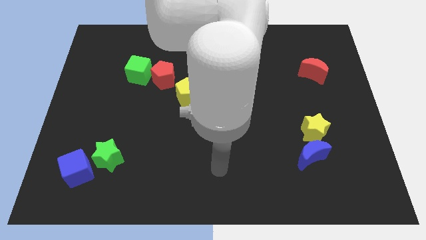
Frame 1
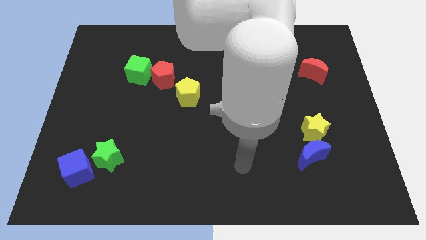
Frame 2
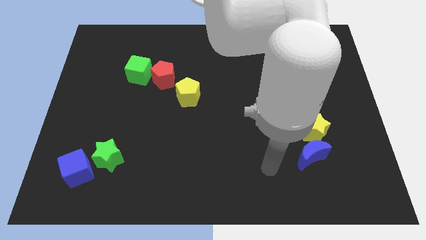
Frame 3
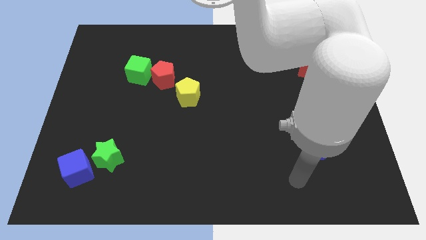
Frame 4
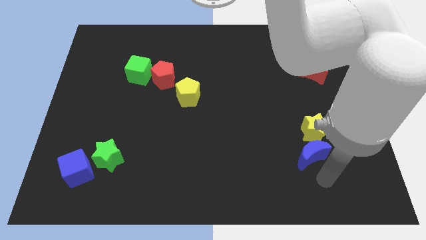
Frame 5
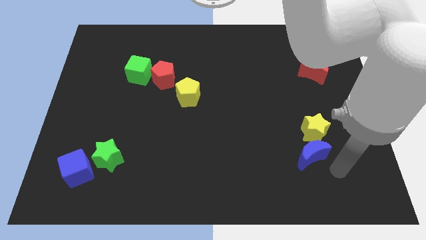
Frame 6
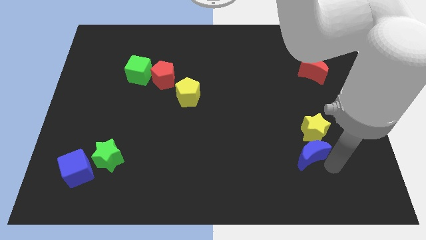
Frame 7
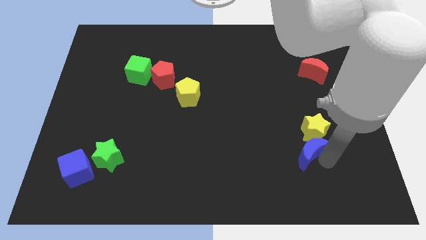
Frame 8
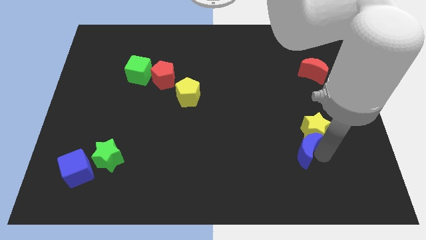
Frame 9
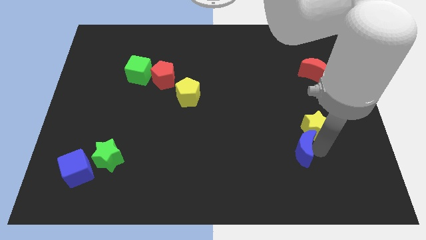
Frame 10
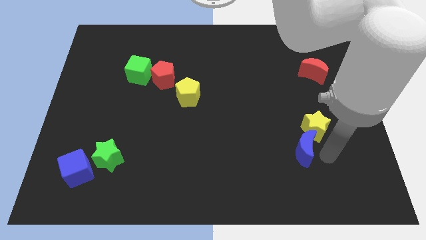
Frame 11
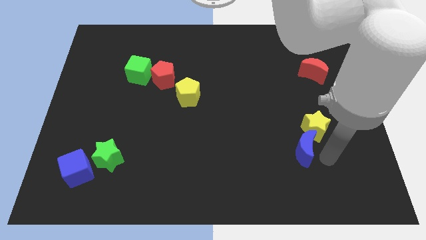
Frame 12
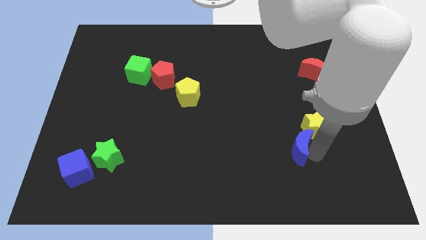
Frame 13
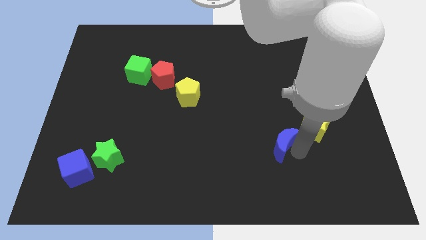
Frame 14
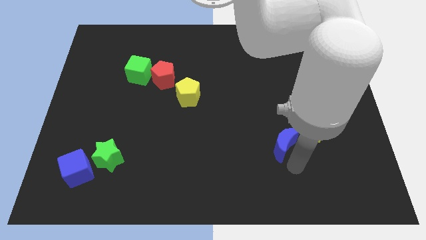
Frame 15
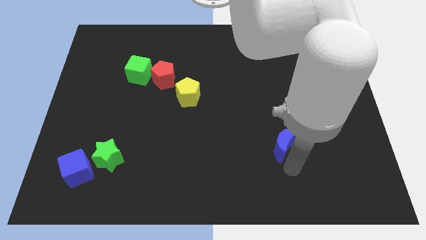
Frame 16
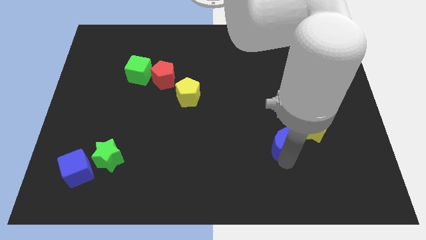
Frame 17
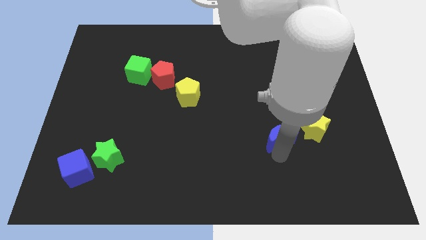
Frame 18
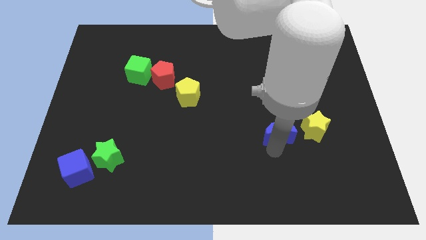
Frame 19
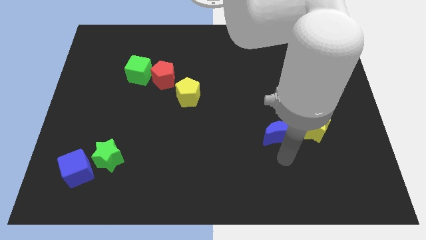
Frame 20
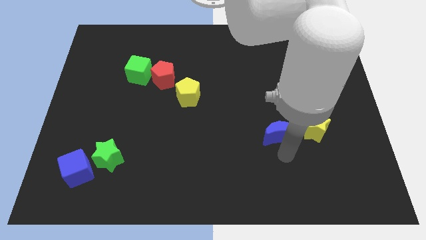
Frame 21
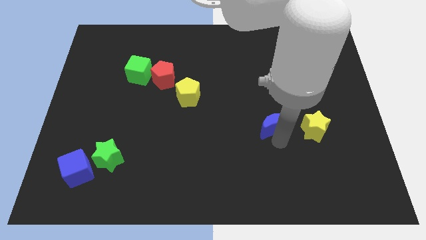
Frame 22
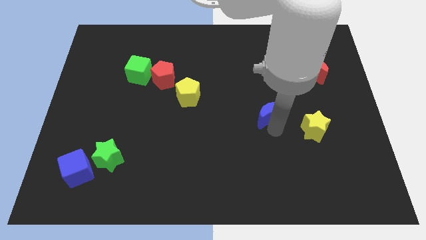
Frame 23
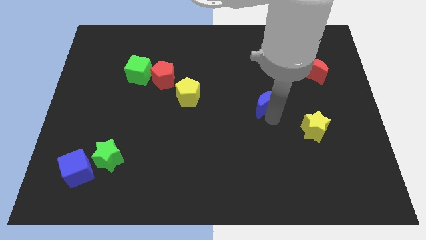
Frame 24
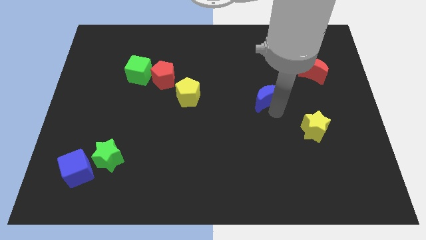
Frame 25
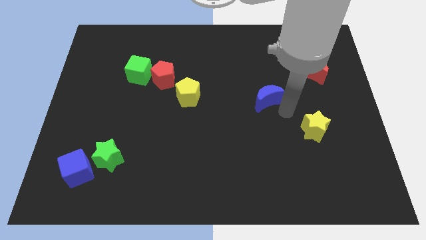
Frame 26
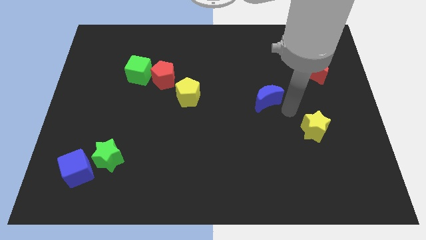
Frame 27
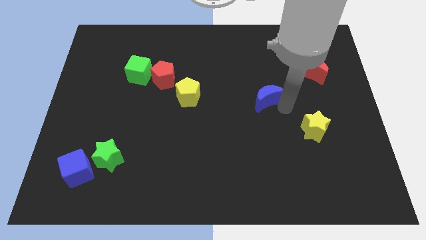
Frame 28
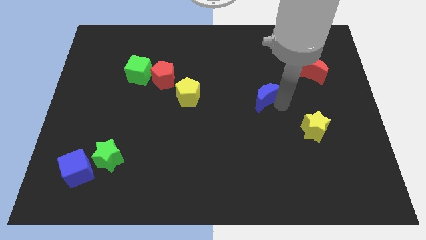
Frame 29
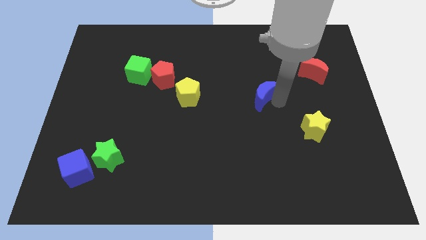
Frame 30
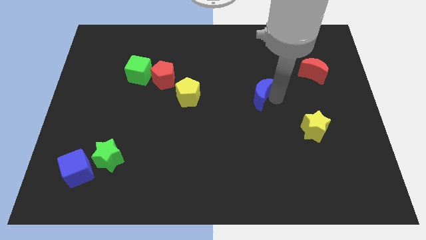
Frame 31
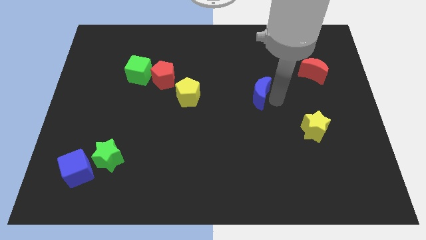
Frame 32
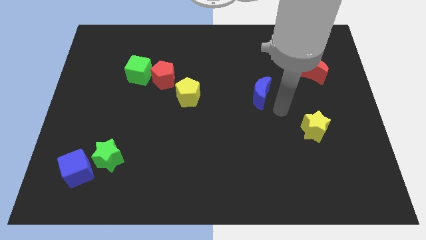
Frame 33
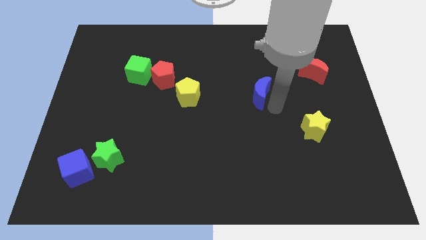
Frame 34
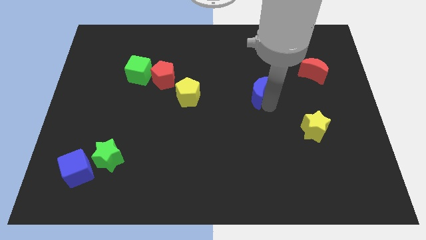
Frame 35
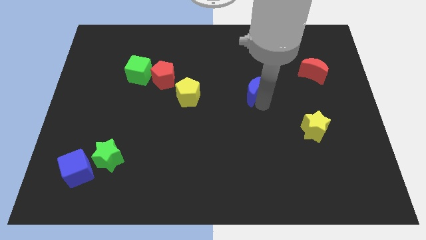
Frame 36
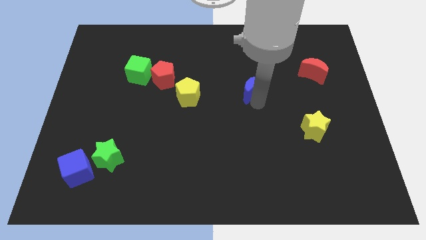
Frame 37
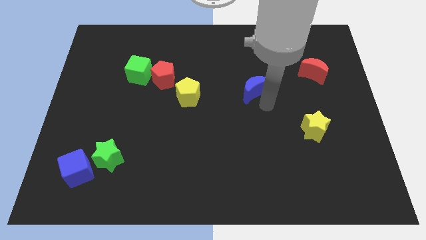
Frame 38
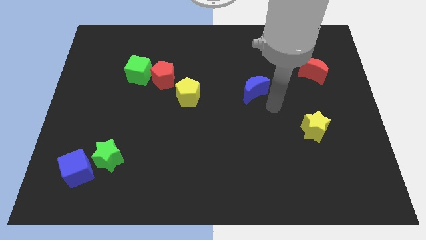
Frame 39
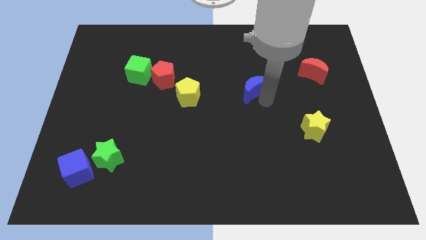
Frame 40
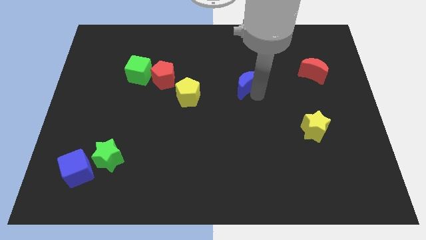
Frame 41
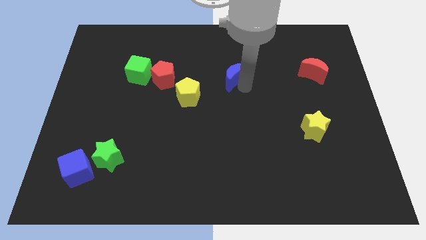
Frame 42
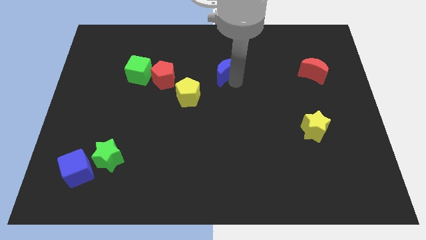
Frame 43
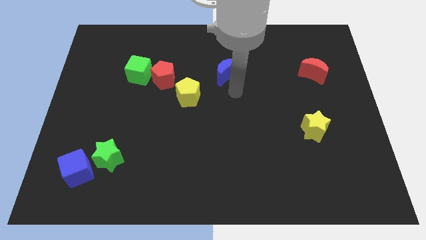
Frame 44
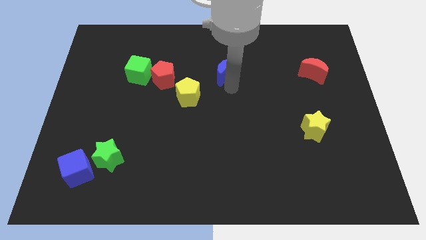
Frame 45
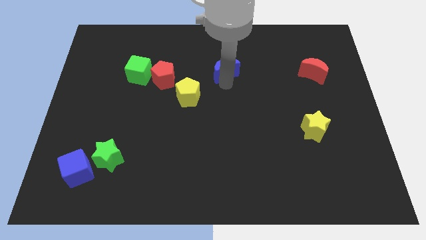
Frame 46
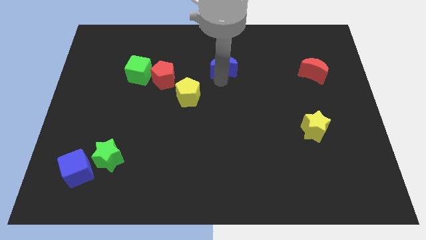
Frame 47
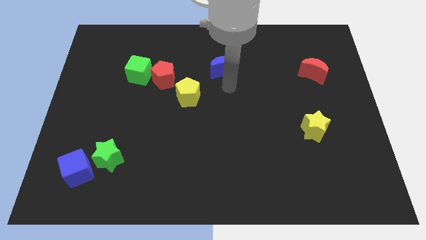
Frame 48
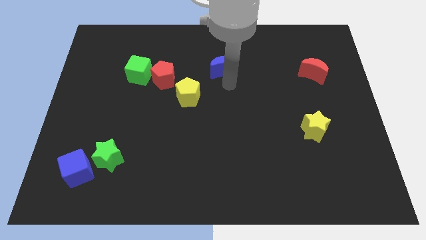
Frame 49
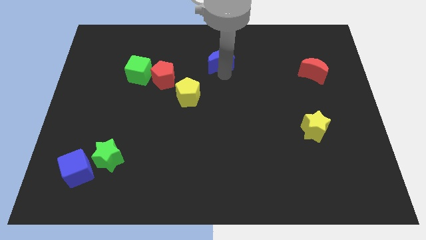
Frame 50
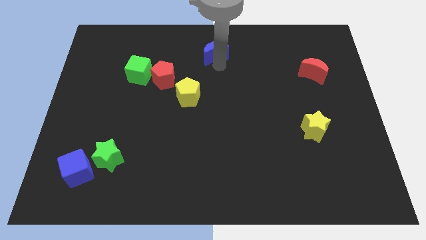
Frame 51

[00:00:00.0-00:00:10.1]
push the blue moon to the towards your base

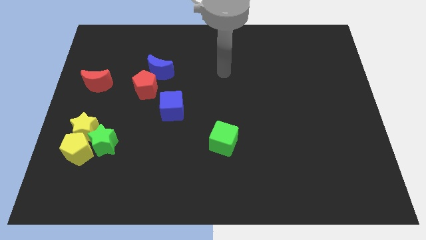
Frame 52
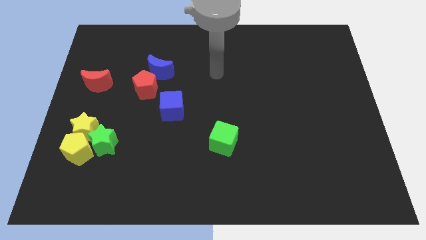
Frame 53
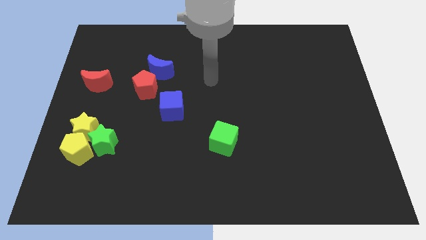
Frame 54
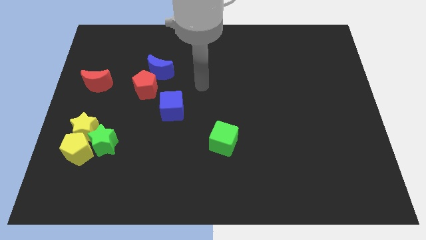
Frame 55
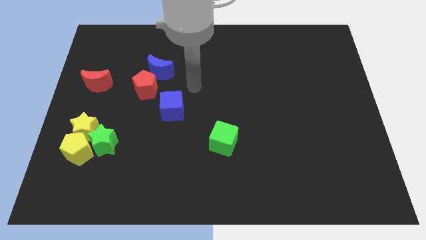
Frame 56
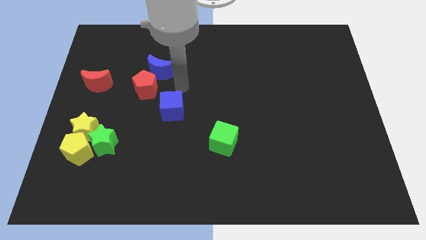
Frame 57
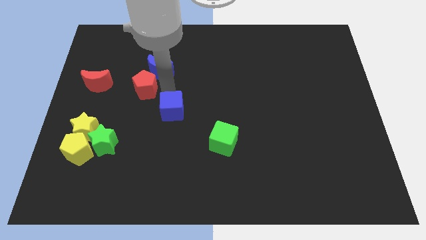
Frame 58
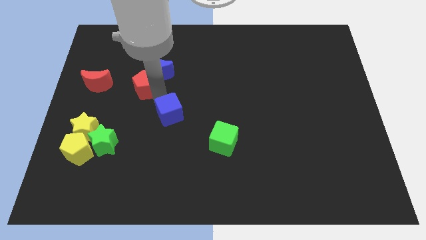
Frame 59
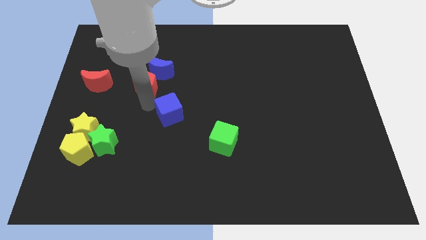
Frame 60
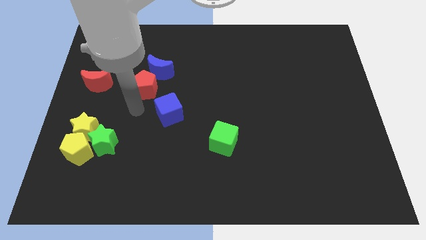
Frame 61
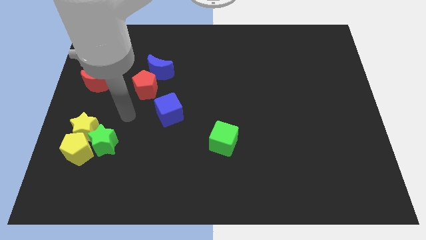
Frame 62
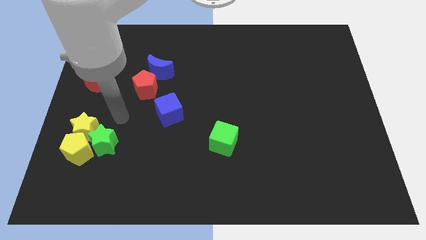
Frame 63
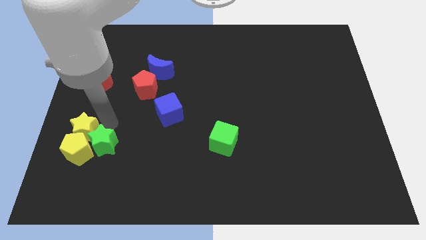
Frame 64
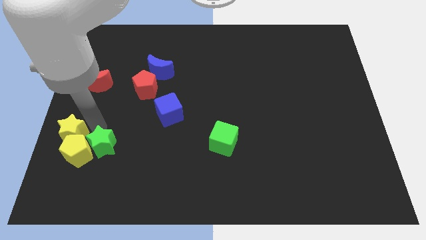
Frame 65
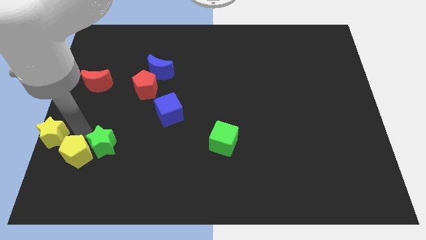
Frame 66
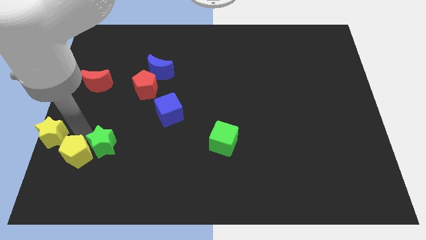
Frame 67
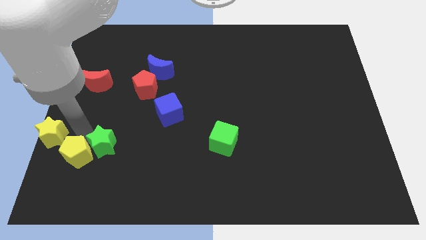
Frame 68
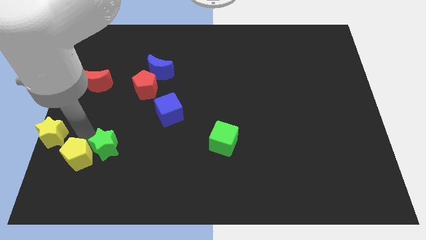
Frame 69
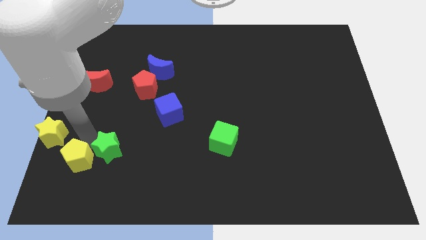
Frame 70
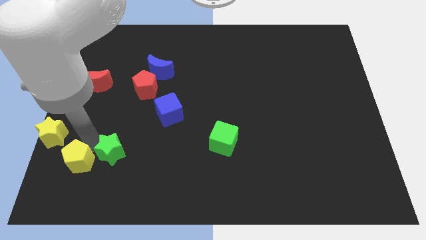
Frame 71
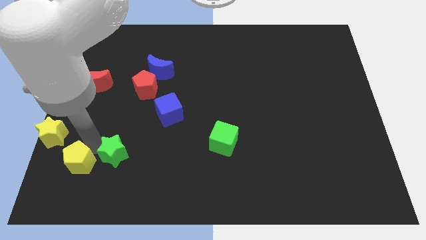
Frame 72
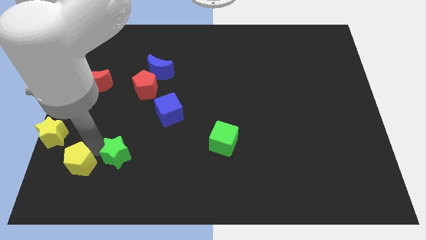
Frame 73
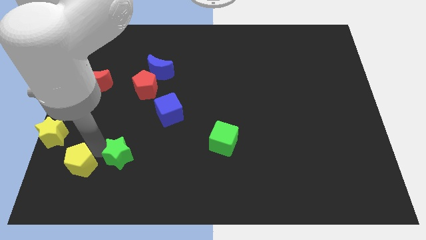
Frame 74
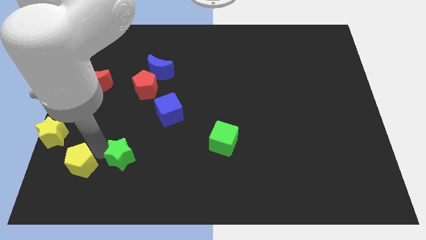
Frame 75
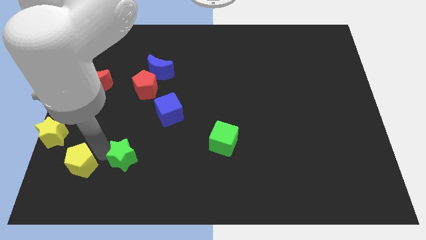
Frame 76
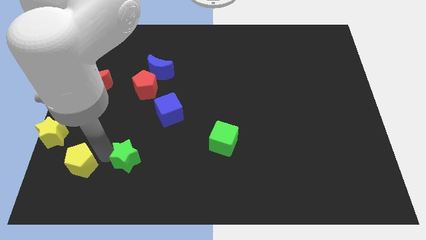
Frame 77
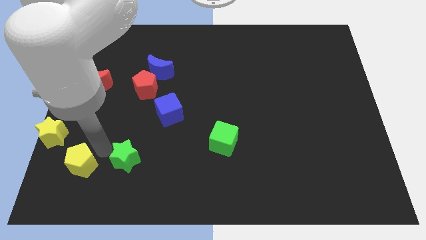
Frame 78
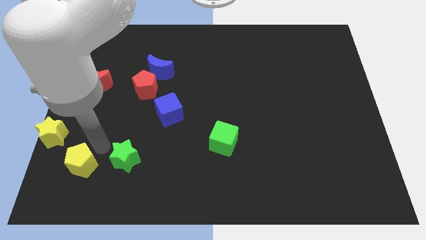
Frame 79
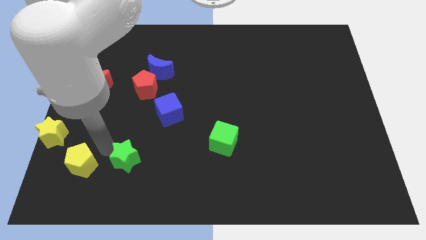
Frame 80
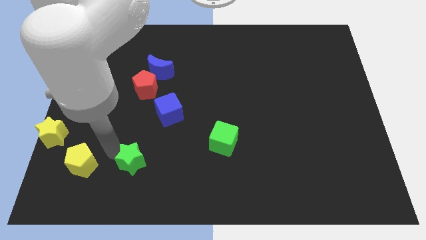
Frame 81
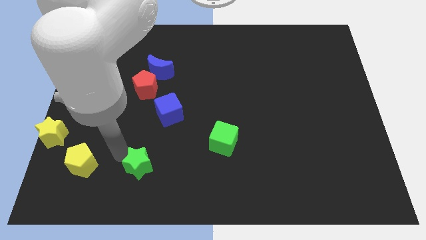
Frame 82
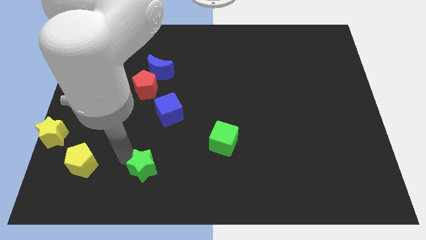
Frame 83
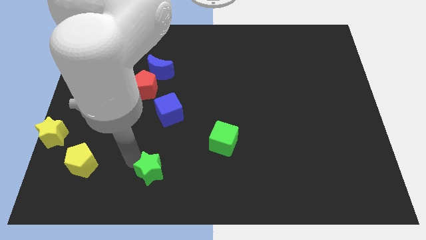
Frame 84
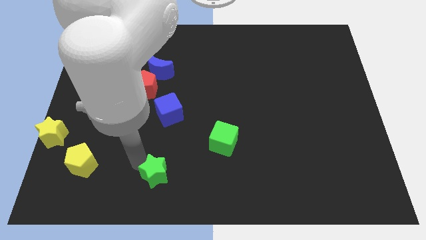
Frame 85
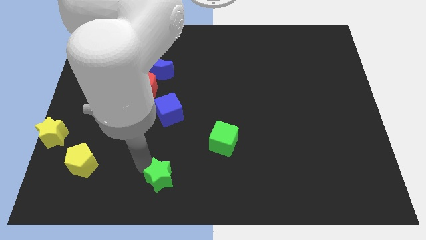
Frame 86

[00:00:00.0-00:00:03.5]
slide the green star to the bottom
